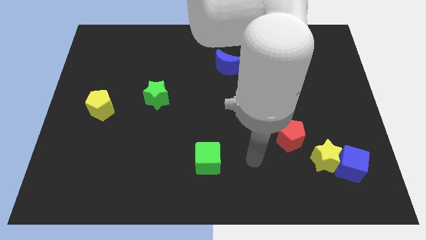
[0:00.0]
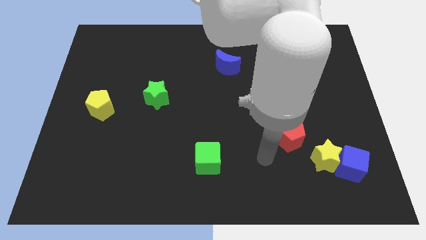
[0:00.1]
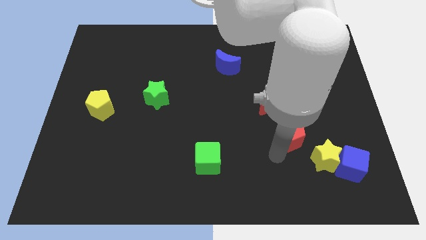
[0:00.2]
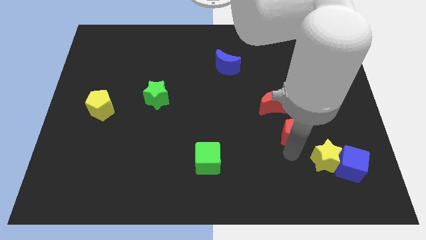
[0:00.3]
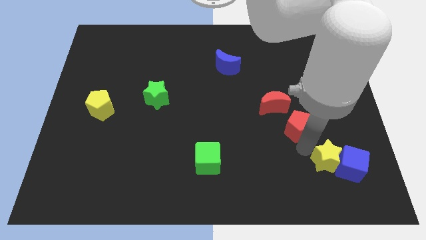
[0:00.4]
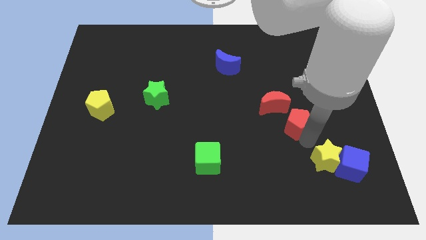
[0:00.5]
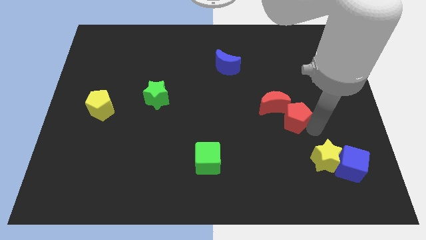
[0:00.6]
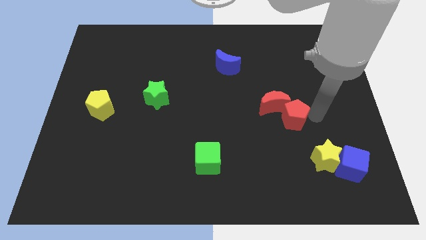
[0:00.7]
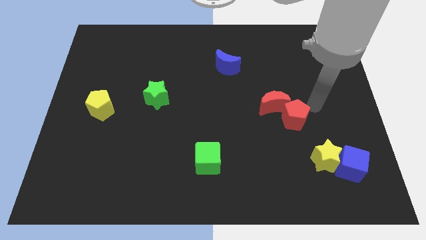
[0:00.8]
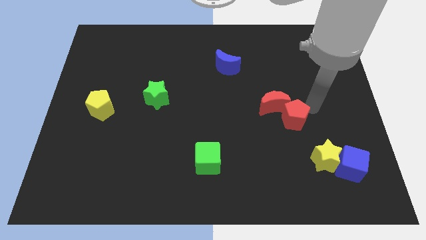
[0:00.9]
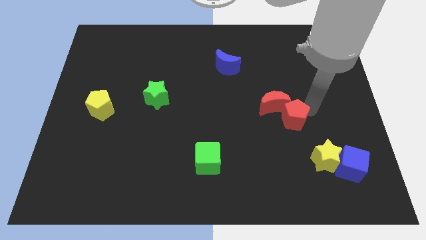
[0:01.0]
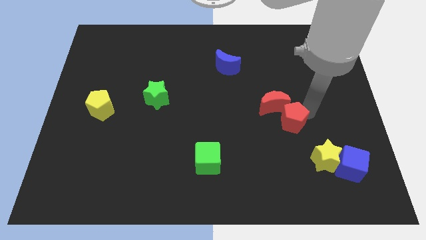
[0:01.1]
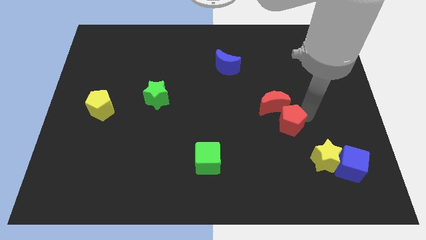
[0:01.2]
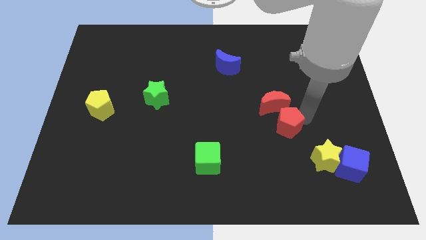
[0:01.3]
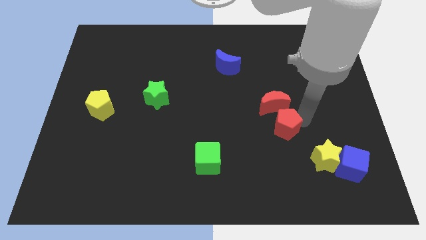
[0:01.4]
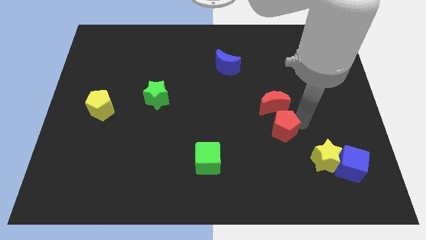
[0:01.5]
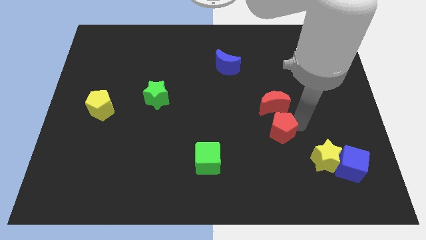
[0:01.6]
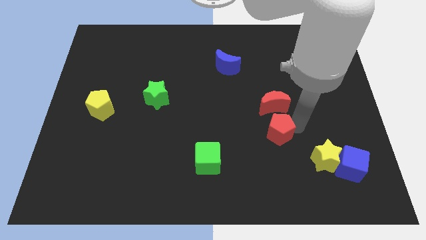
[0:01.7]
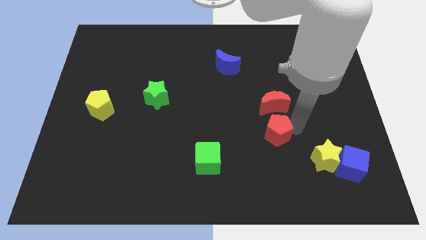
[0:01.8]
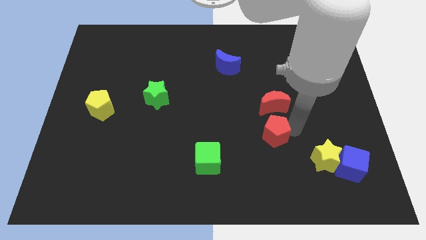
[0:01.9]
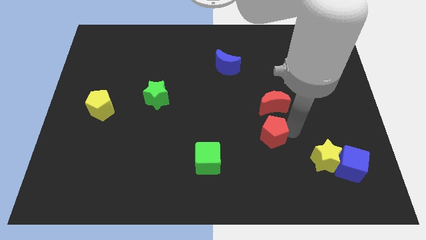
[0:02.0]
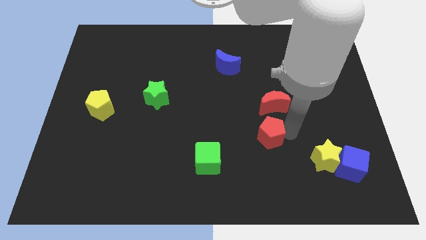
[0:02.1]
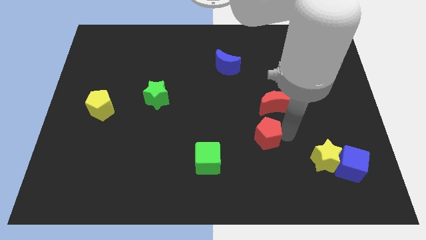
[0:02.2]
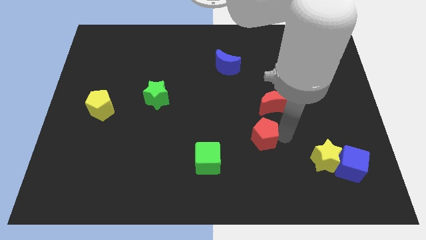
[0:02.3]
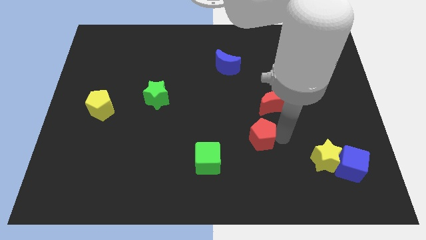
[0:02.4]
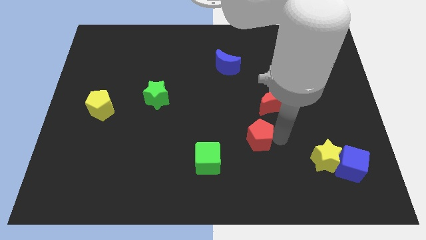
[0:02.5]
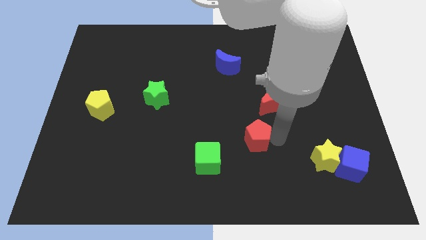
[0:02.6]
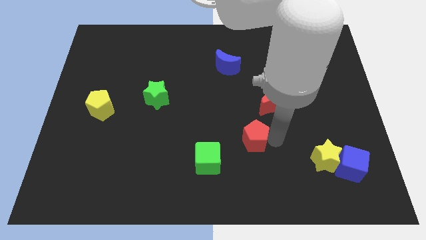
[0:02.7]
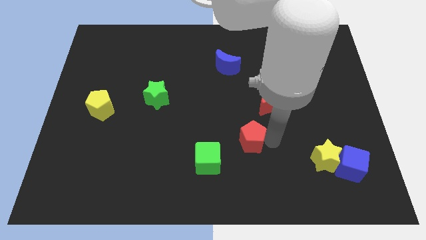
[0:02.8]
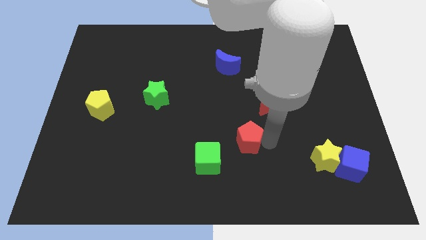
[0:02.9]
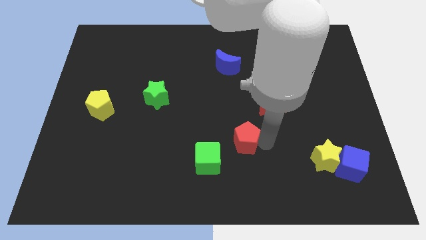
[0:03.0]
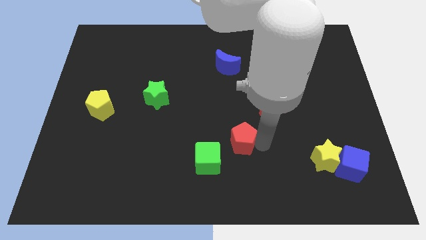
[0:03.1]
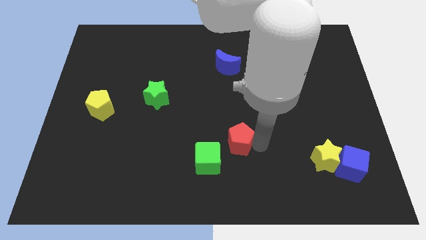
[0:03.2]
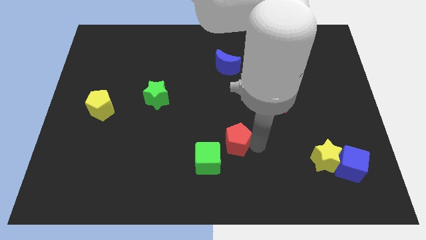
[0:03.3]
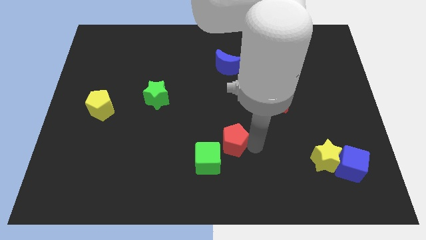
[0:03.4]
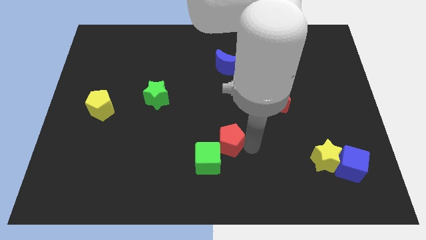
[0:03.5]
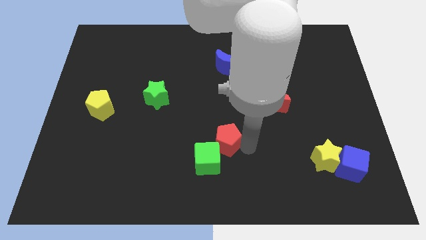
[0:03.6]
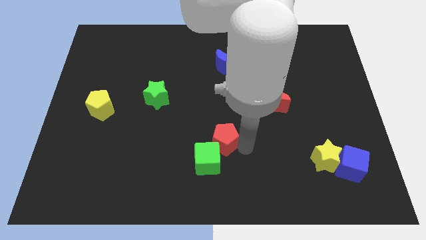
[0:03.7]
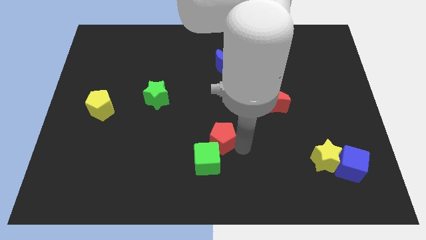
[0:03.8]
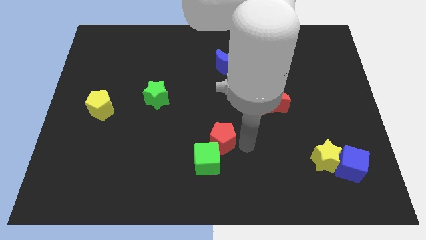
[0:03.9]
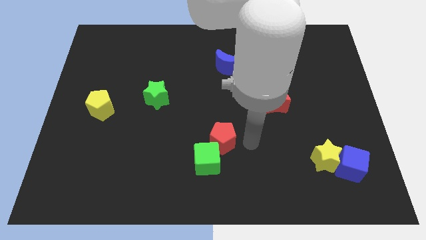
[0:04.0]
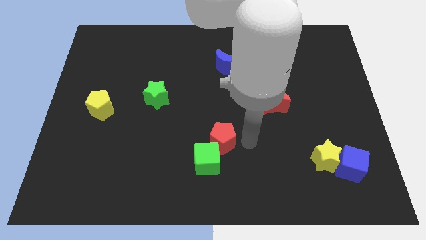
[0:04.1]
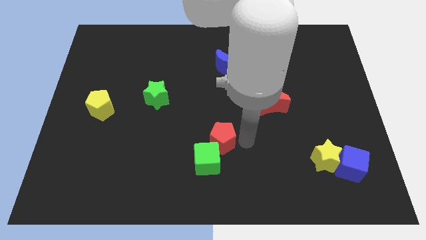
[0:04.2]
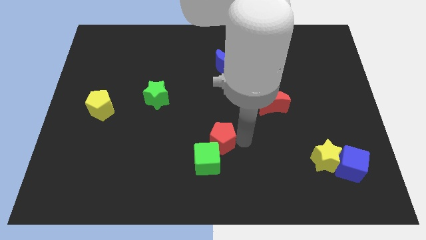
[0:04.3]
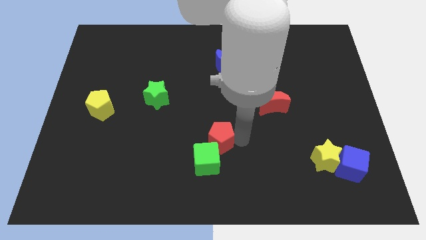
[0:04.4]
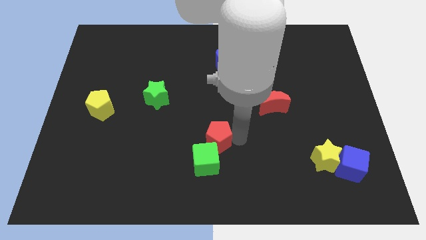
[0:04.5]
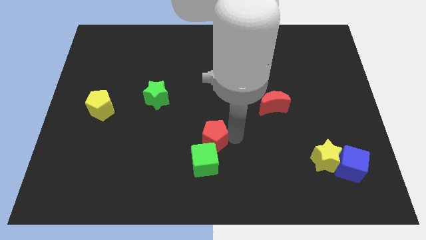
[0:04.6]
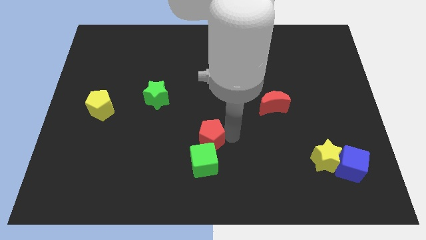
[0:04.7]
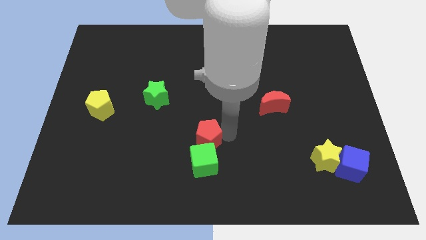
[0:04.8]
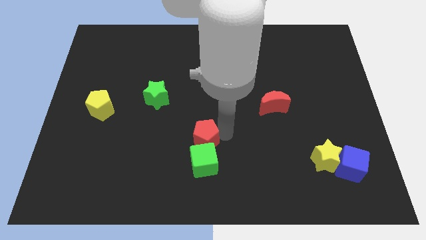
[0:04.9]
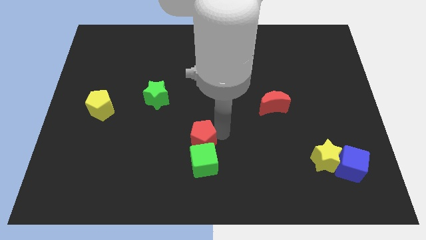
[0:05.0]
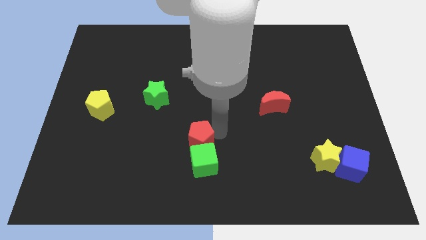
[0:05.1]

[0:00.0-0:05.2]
push the red pentagon left

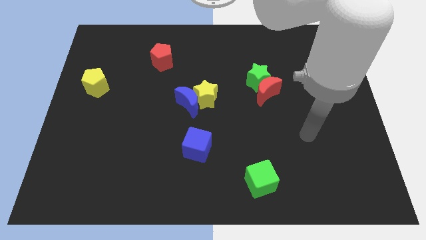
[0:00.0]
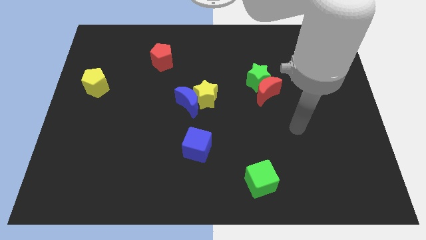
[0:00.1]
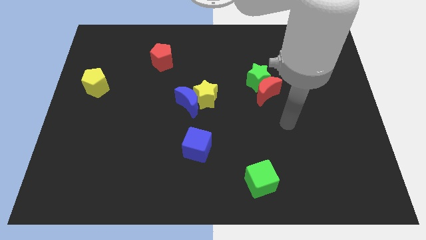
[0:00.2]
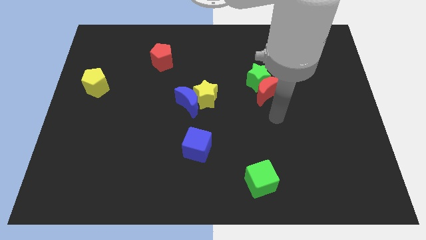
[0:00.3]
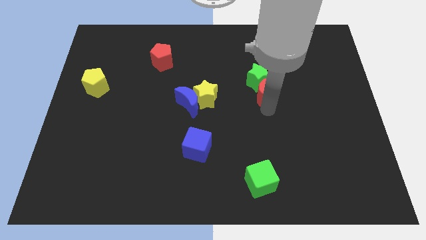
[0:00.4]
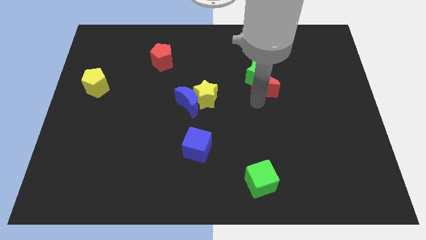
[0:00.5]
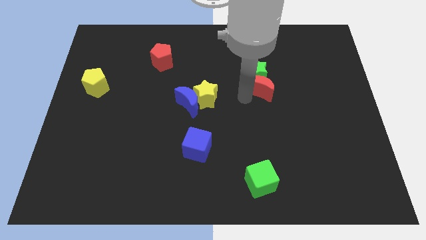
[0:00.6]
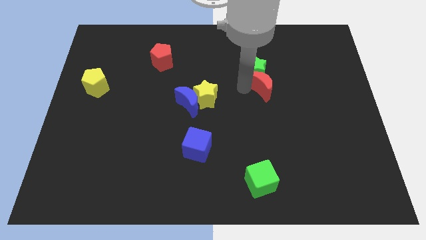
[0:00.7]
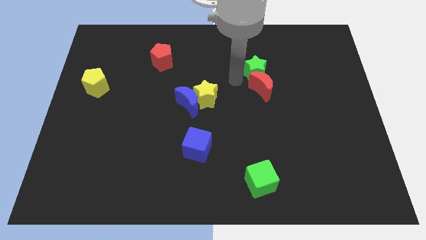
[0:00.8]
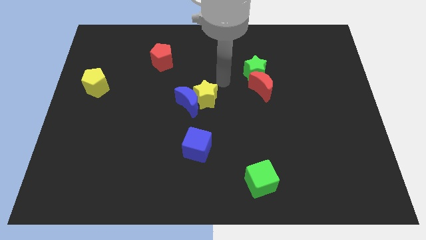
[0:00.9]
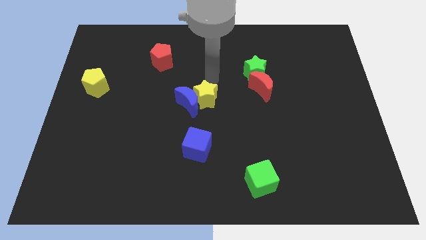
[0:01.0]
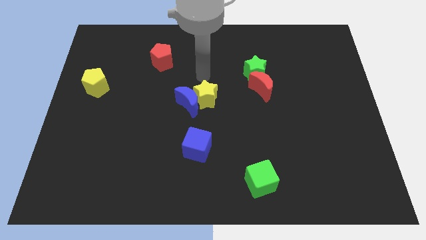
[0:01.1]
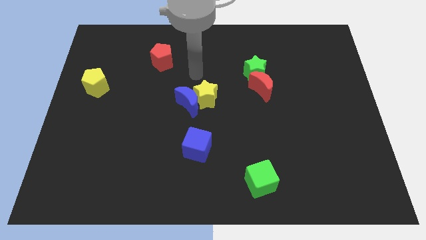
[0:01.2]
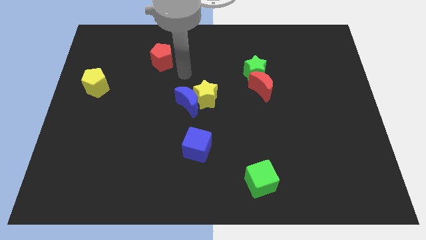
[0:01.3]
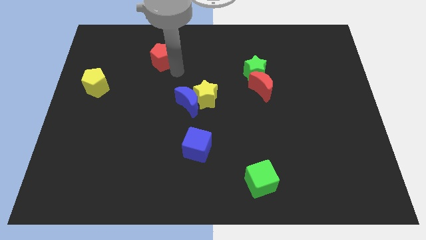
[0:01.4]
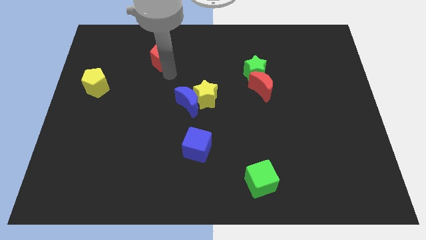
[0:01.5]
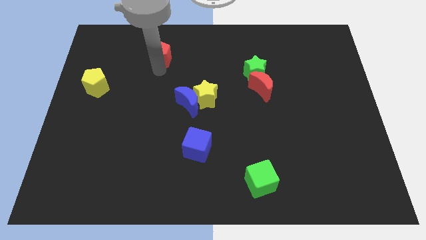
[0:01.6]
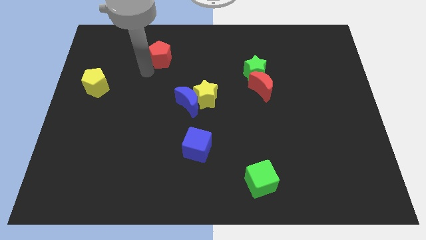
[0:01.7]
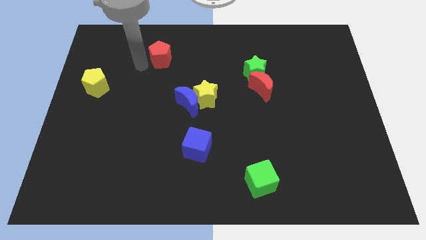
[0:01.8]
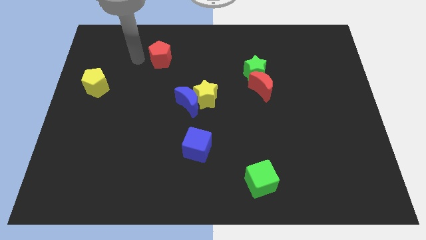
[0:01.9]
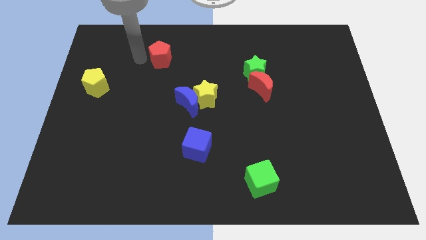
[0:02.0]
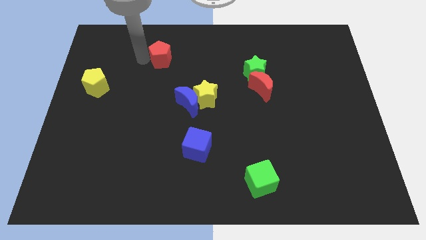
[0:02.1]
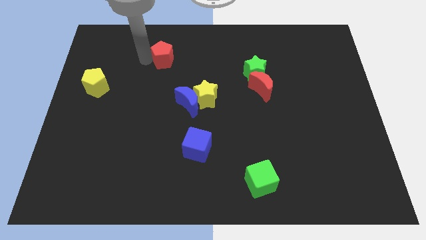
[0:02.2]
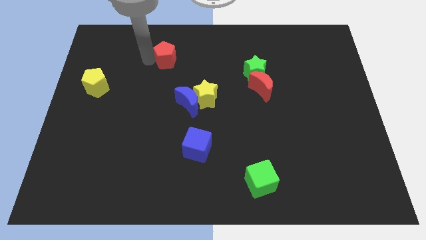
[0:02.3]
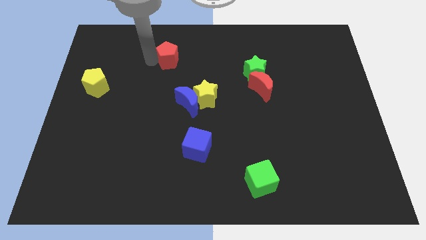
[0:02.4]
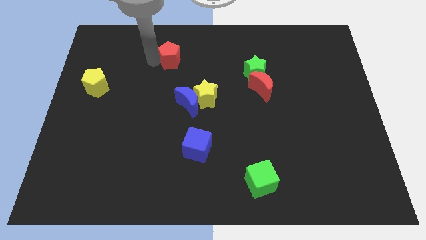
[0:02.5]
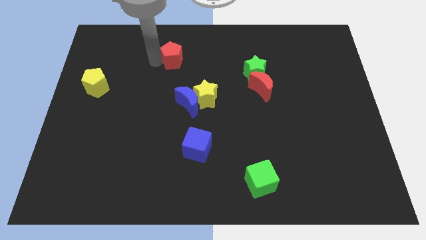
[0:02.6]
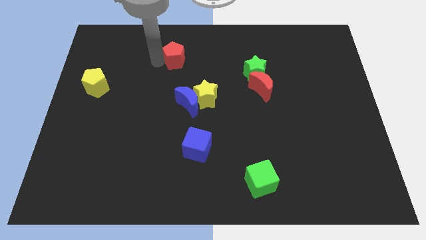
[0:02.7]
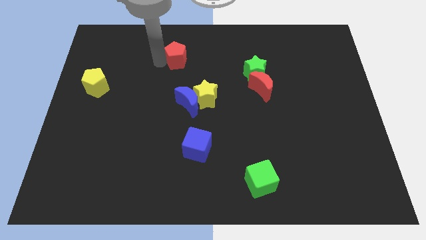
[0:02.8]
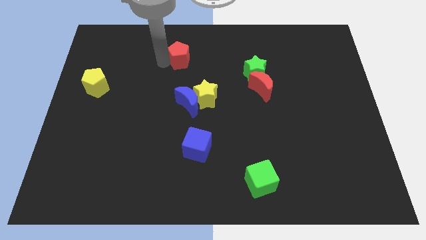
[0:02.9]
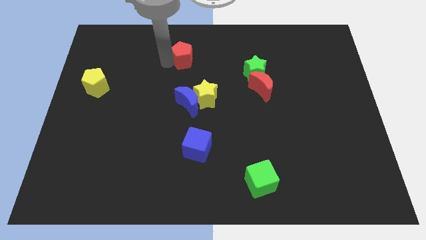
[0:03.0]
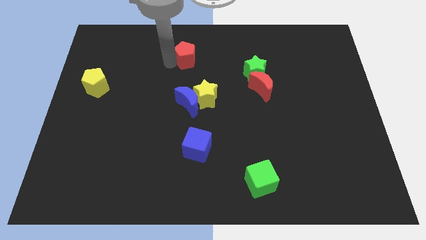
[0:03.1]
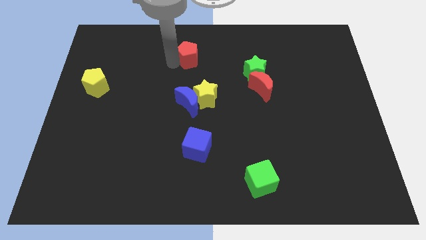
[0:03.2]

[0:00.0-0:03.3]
move the red pentagon slightly to the right
